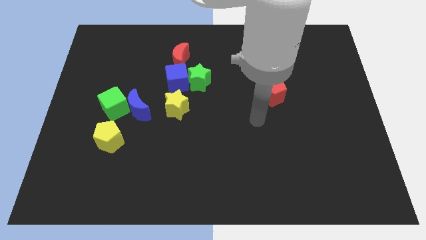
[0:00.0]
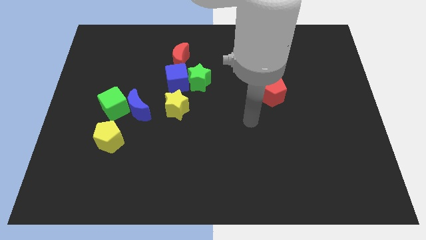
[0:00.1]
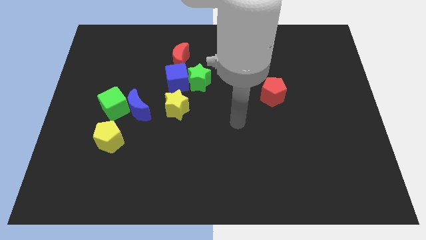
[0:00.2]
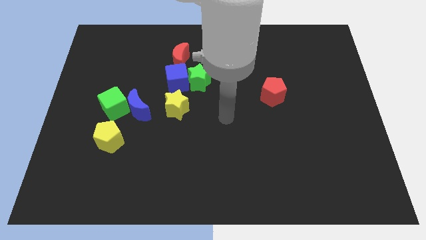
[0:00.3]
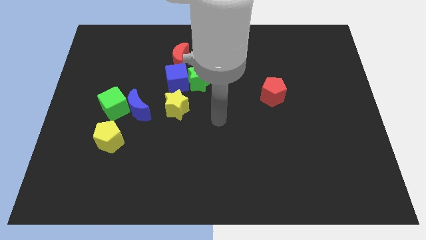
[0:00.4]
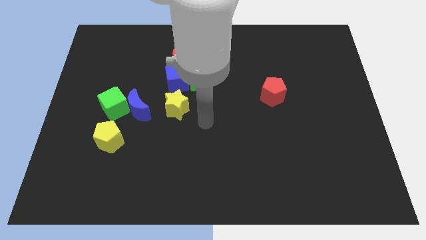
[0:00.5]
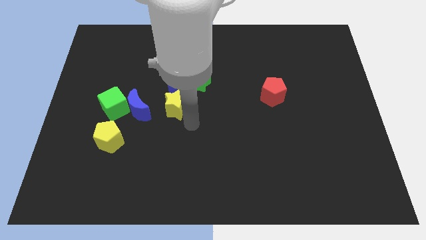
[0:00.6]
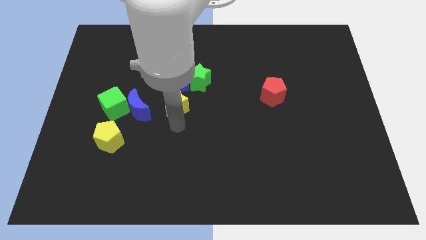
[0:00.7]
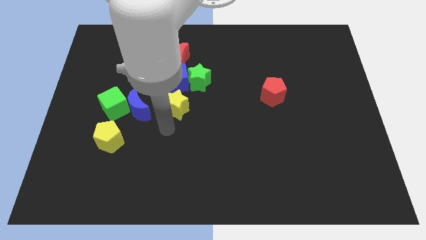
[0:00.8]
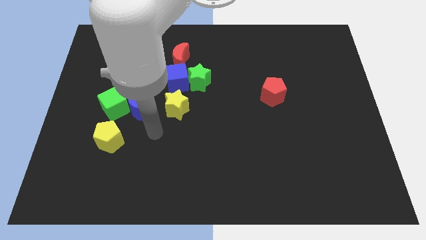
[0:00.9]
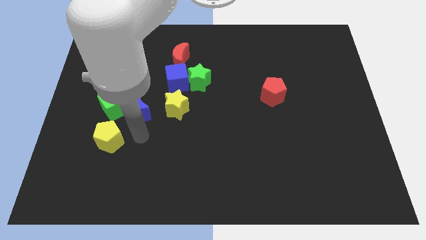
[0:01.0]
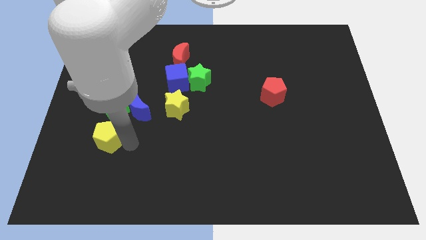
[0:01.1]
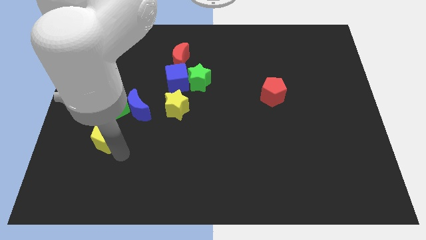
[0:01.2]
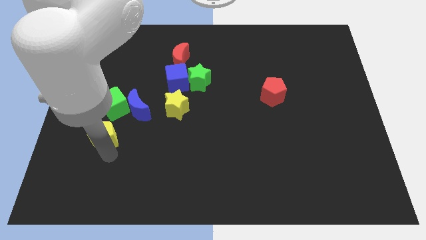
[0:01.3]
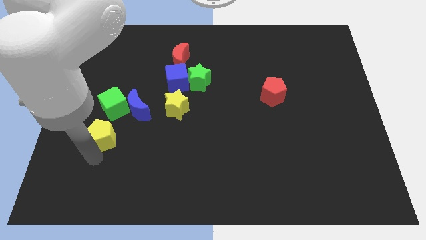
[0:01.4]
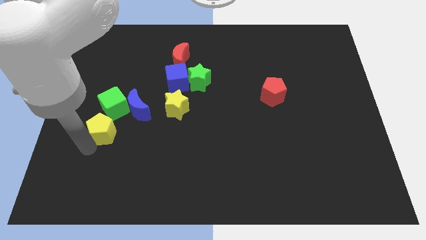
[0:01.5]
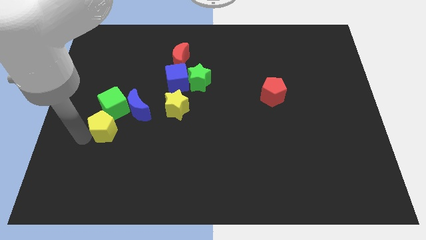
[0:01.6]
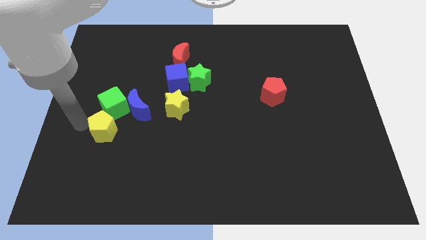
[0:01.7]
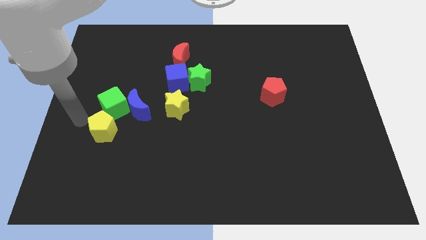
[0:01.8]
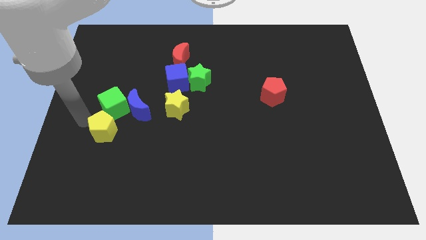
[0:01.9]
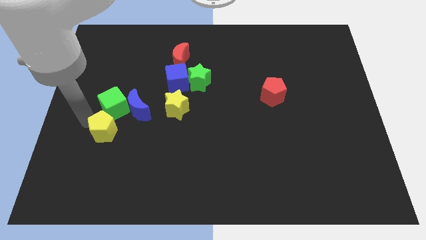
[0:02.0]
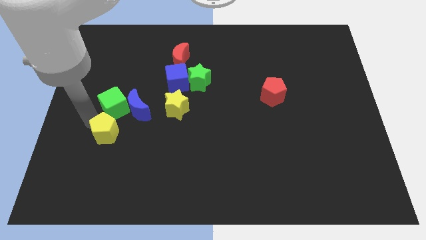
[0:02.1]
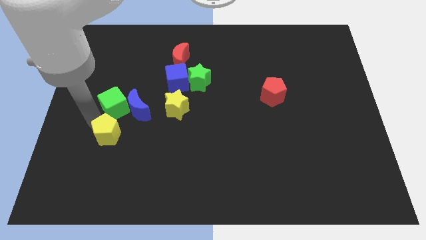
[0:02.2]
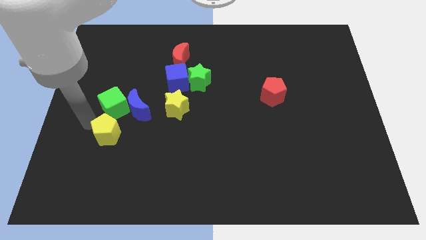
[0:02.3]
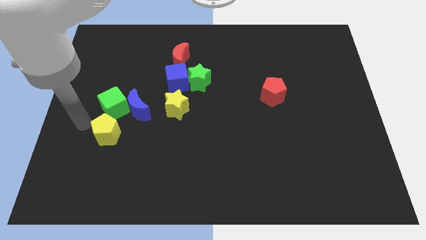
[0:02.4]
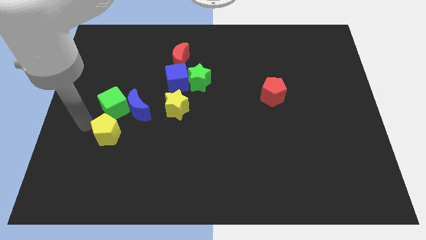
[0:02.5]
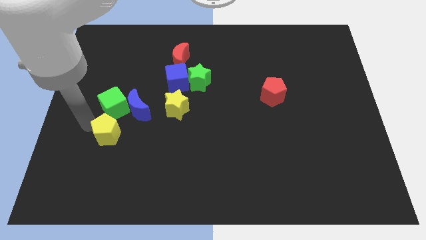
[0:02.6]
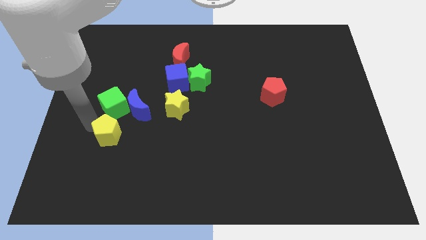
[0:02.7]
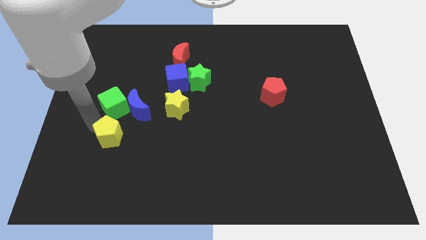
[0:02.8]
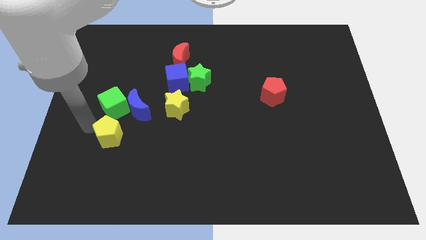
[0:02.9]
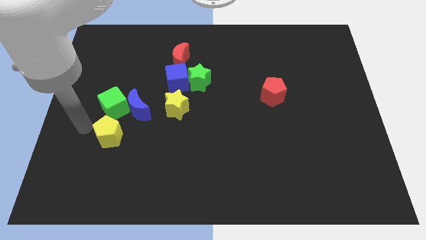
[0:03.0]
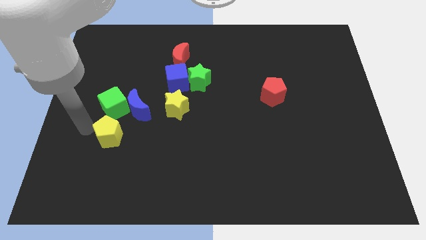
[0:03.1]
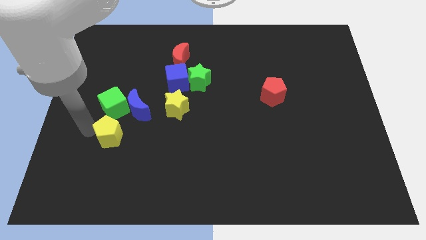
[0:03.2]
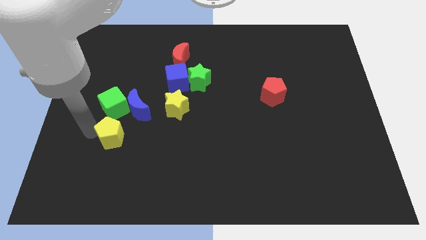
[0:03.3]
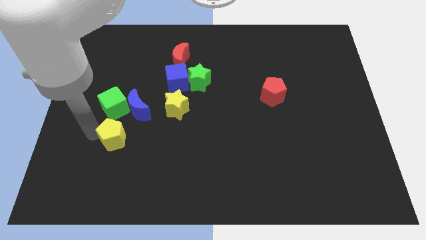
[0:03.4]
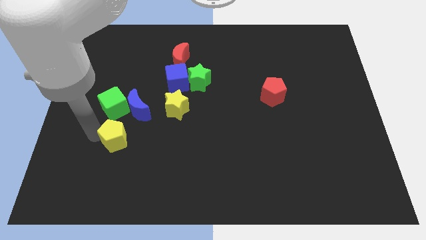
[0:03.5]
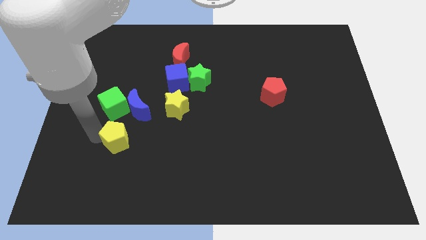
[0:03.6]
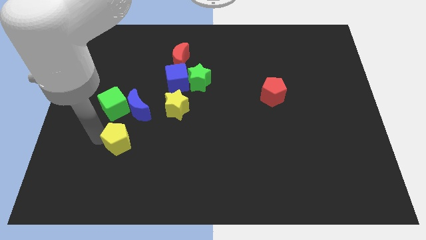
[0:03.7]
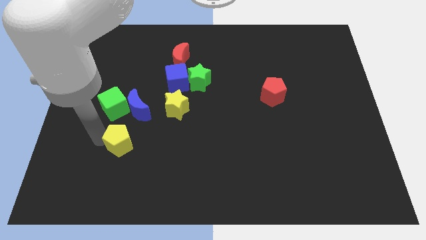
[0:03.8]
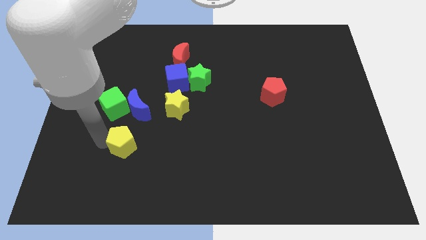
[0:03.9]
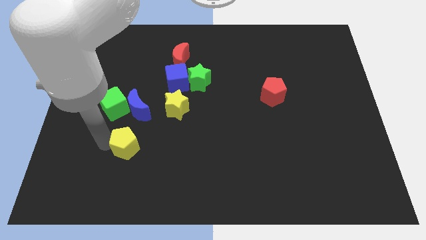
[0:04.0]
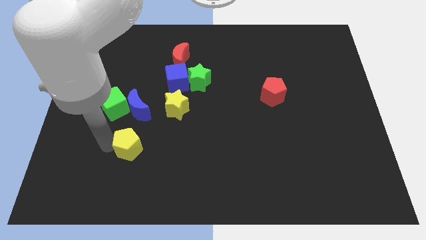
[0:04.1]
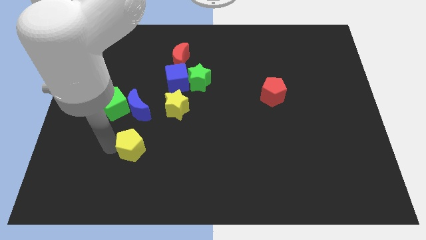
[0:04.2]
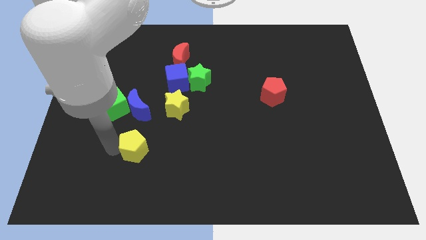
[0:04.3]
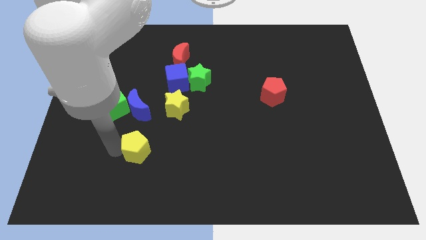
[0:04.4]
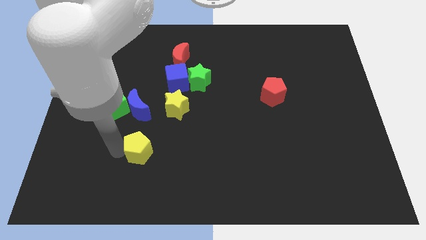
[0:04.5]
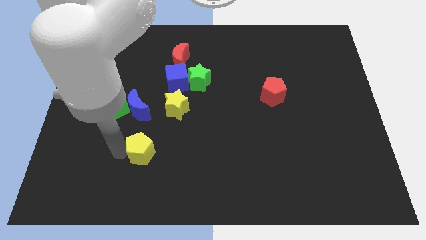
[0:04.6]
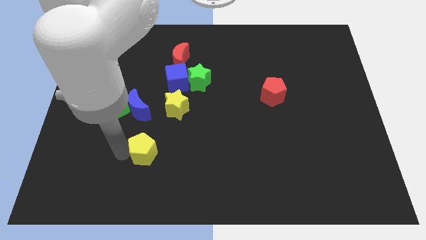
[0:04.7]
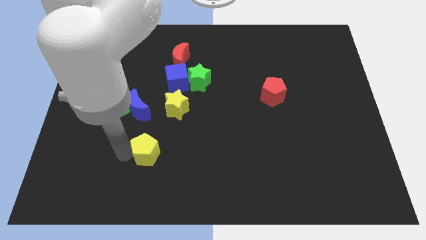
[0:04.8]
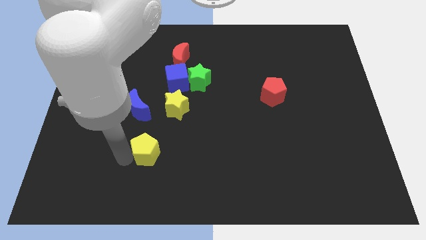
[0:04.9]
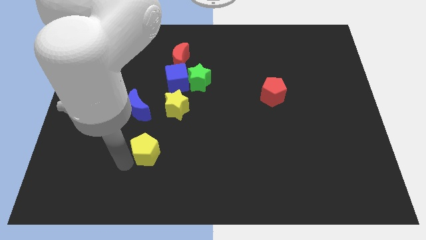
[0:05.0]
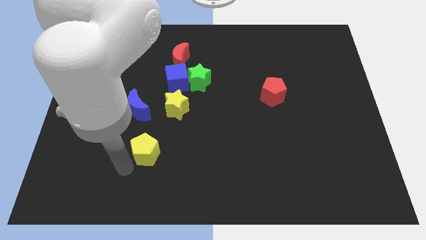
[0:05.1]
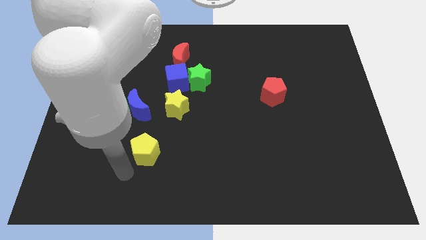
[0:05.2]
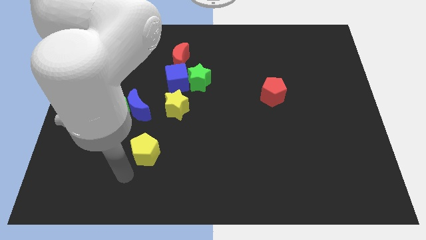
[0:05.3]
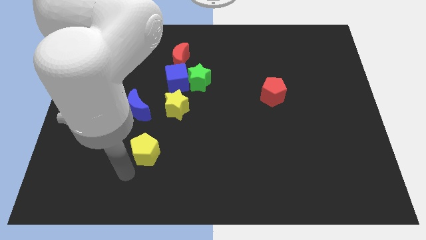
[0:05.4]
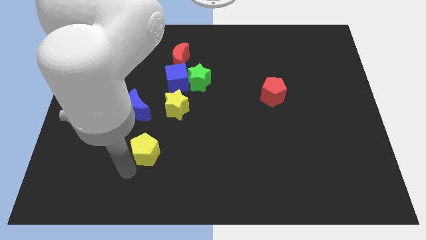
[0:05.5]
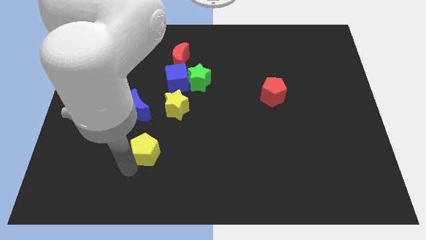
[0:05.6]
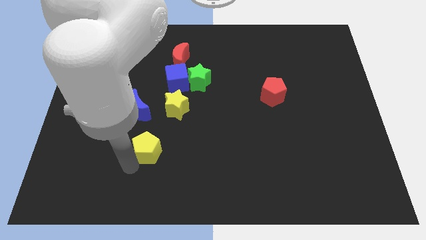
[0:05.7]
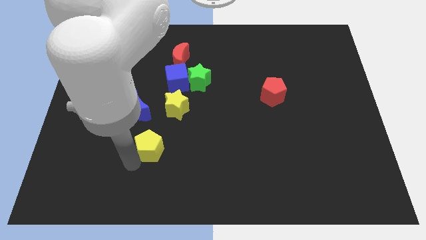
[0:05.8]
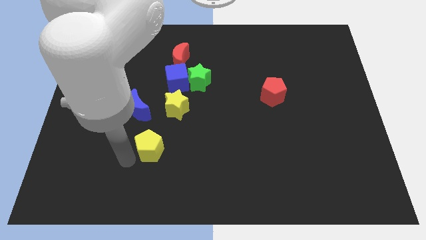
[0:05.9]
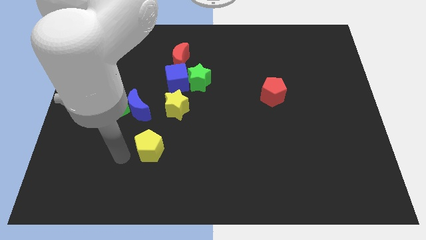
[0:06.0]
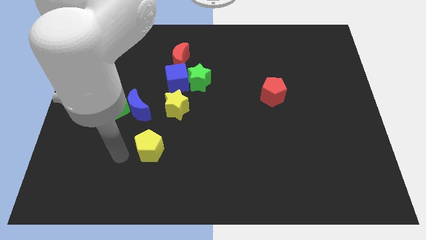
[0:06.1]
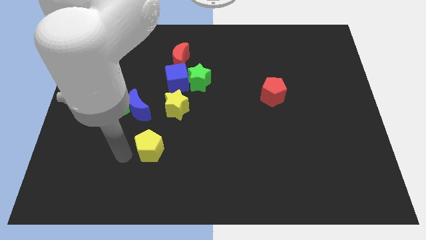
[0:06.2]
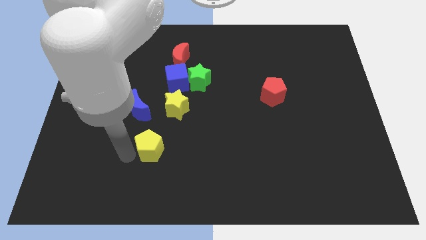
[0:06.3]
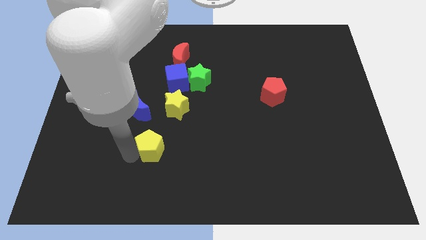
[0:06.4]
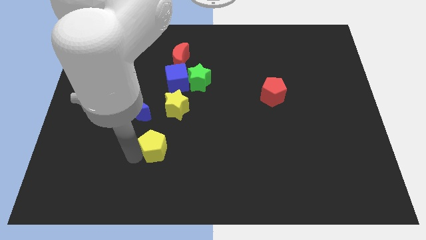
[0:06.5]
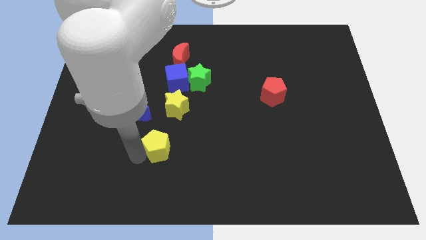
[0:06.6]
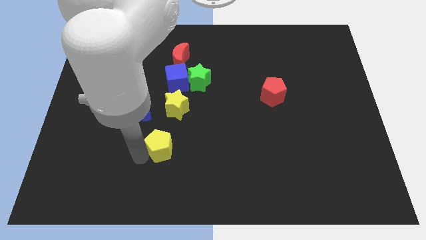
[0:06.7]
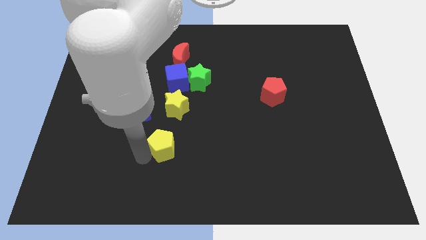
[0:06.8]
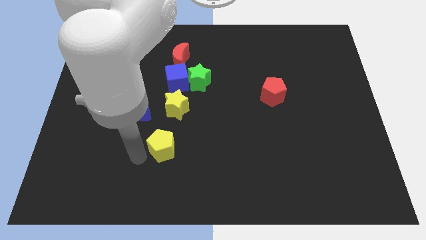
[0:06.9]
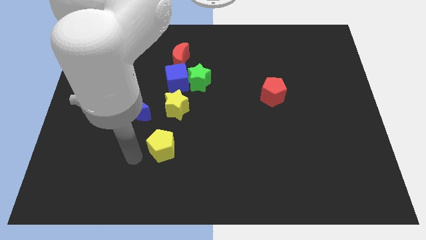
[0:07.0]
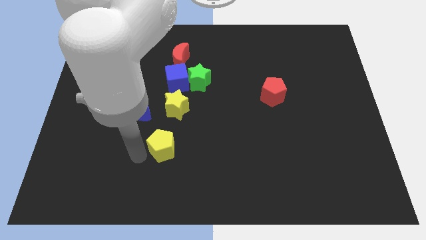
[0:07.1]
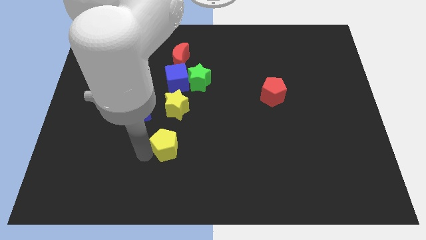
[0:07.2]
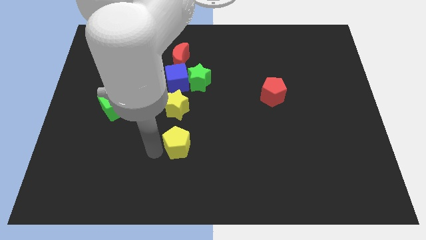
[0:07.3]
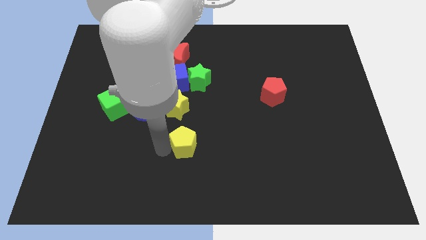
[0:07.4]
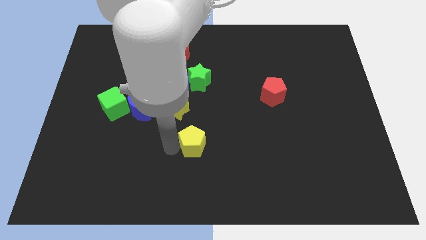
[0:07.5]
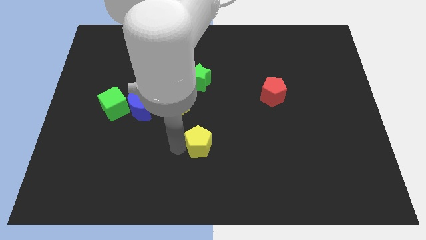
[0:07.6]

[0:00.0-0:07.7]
move the yellow pentagon to the right

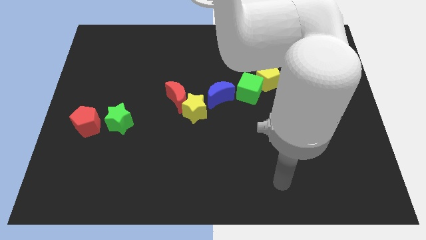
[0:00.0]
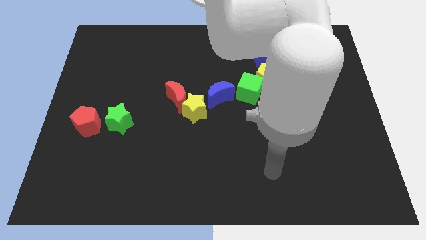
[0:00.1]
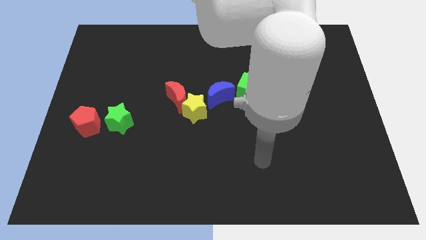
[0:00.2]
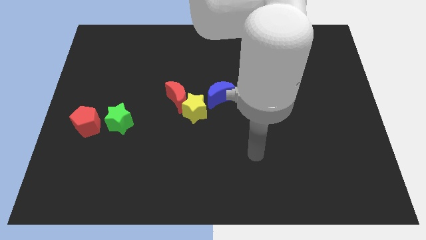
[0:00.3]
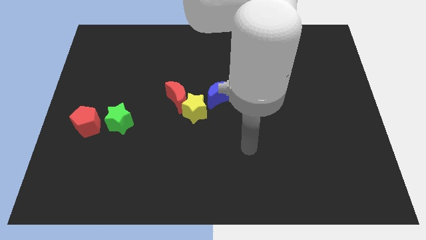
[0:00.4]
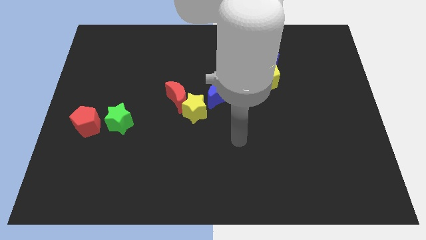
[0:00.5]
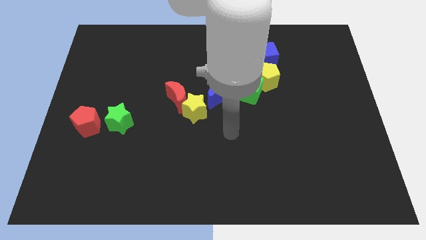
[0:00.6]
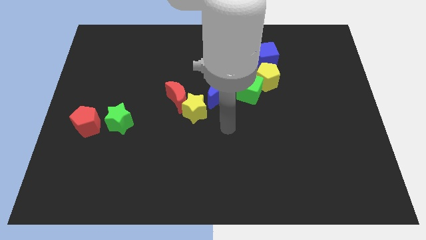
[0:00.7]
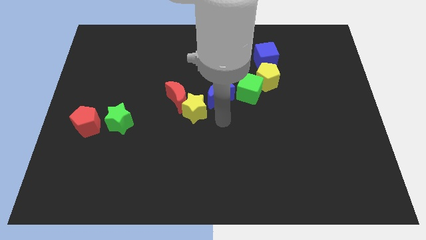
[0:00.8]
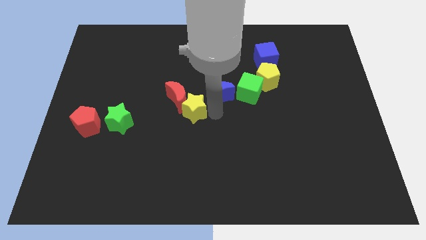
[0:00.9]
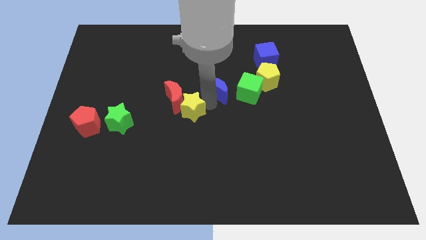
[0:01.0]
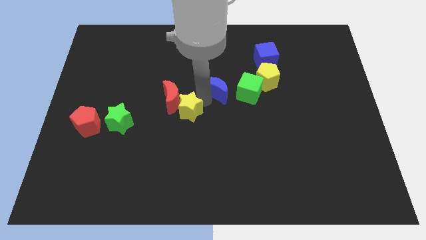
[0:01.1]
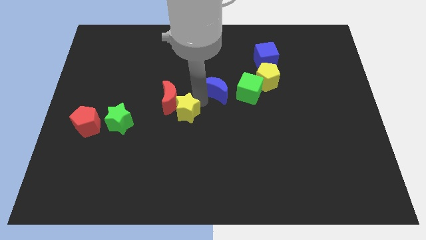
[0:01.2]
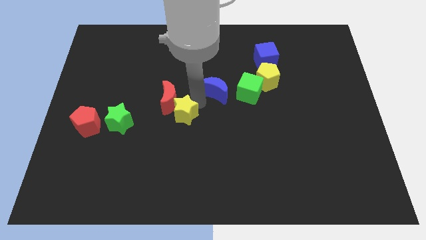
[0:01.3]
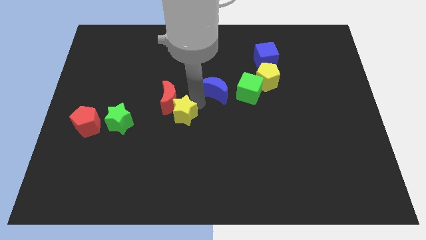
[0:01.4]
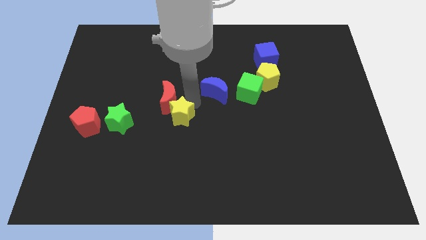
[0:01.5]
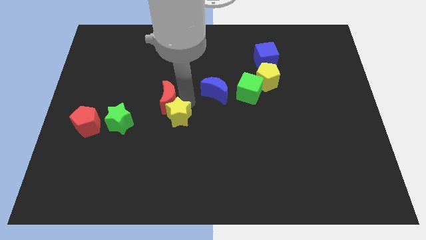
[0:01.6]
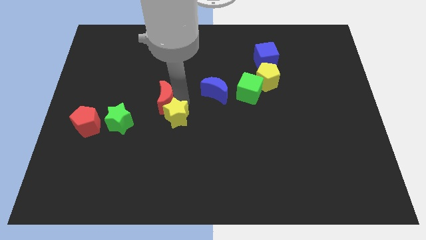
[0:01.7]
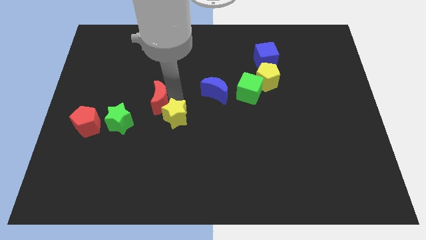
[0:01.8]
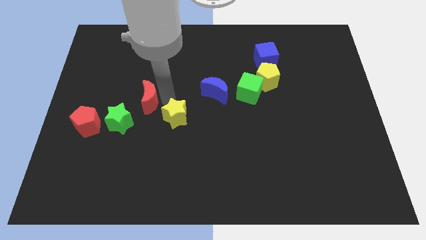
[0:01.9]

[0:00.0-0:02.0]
move the red moon a bit to the left
